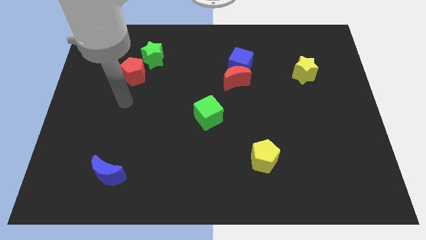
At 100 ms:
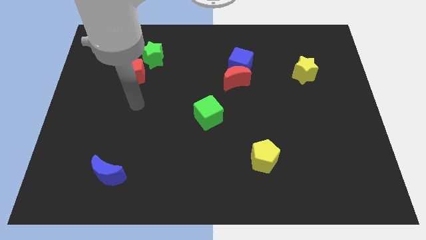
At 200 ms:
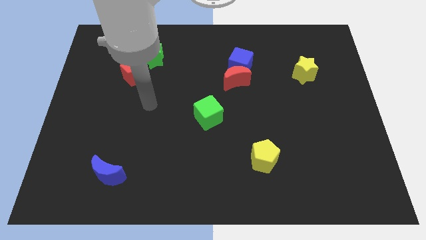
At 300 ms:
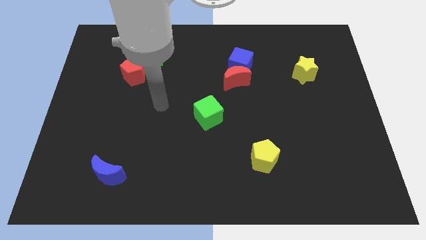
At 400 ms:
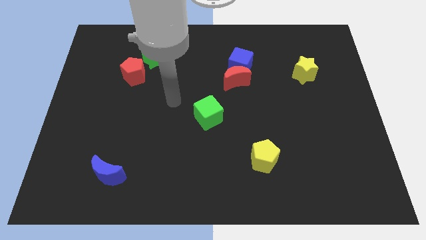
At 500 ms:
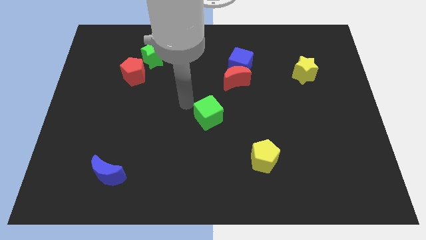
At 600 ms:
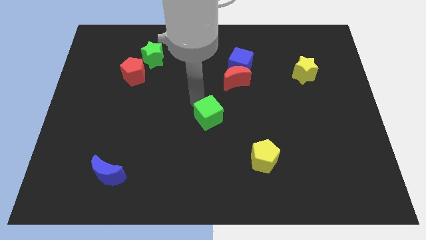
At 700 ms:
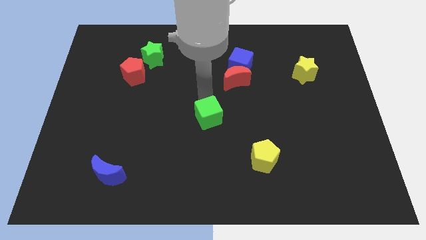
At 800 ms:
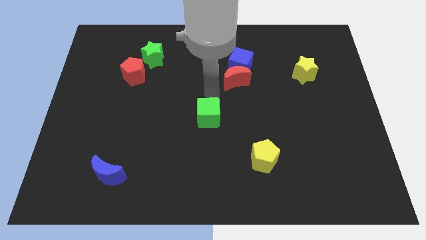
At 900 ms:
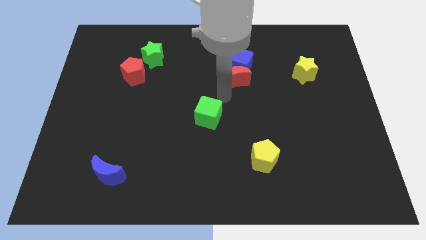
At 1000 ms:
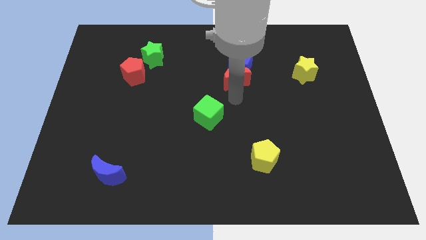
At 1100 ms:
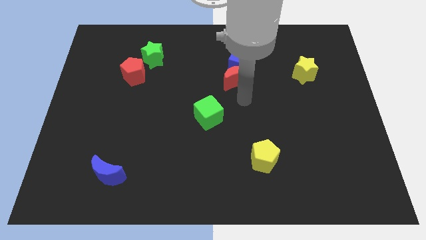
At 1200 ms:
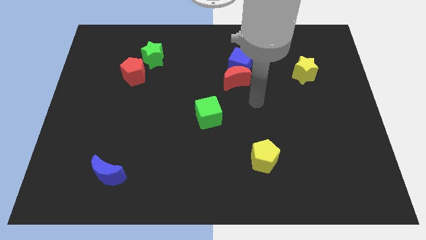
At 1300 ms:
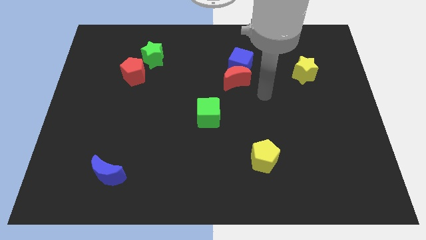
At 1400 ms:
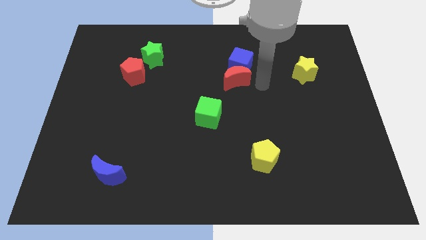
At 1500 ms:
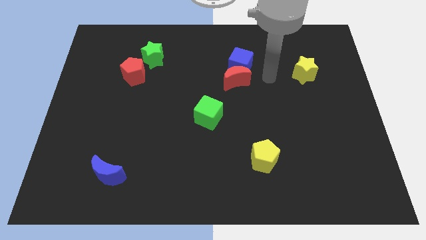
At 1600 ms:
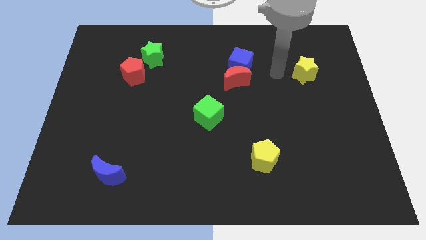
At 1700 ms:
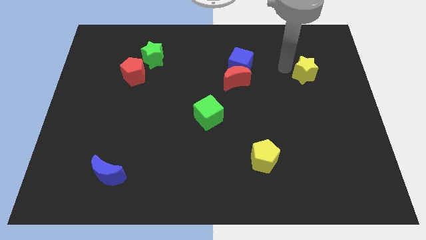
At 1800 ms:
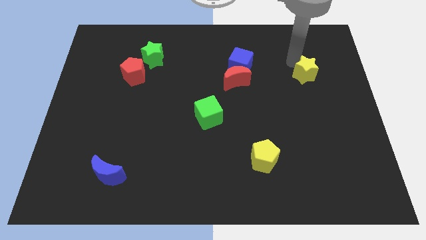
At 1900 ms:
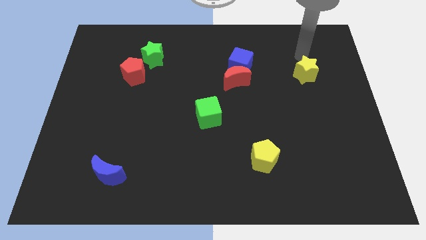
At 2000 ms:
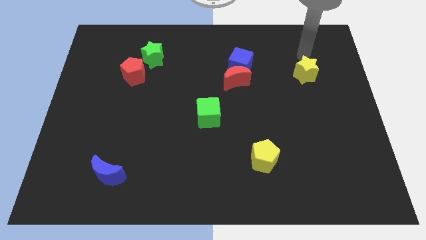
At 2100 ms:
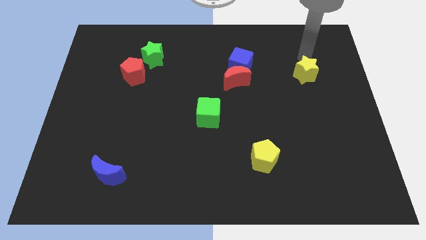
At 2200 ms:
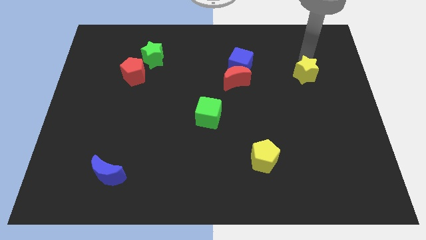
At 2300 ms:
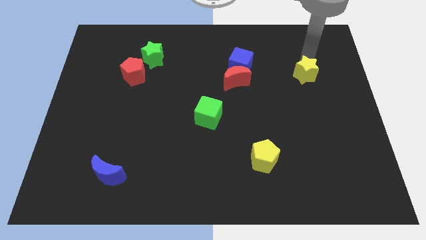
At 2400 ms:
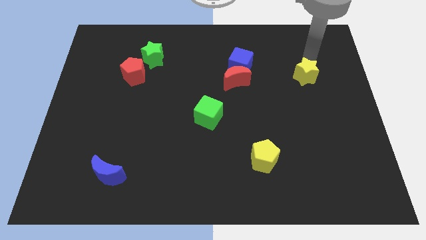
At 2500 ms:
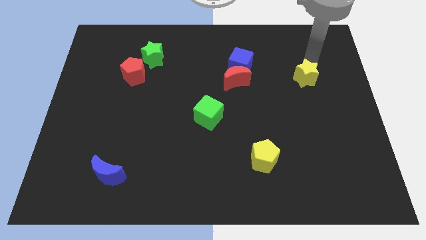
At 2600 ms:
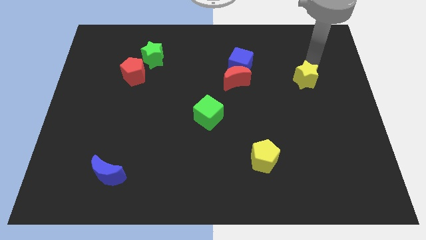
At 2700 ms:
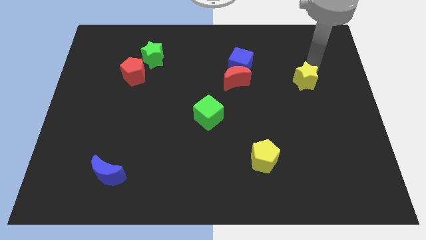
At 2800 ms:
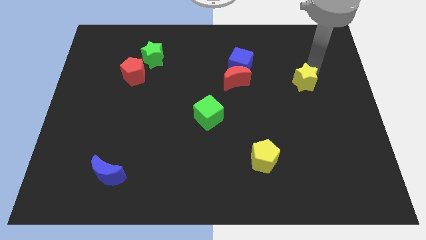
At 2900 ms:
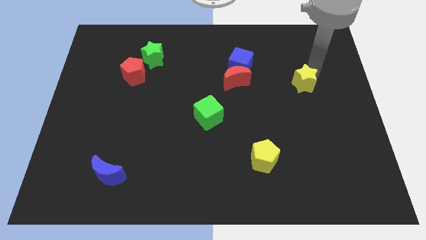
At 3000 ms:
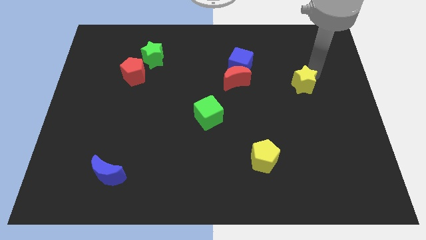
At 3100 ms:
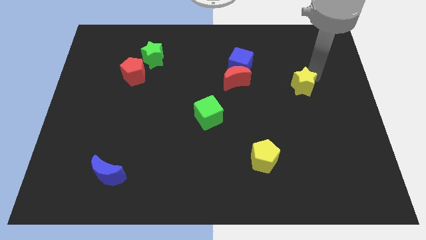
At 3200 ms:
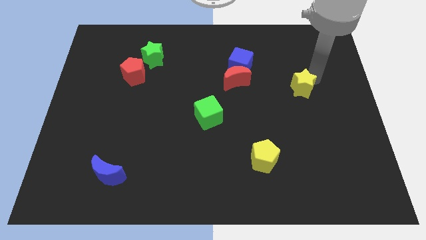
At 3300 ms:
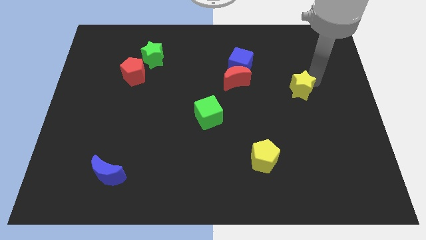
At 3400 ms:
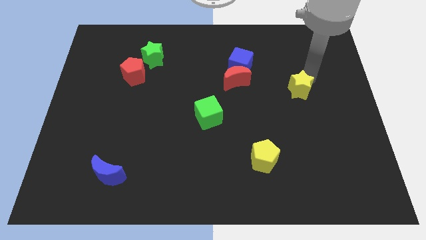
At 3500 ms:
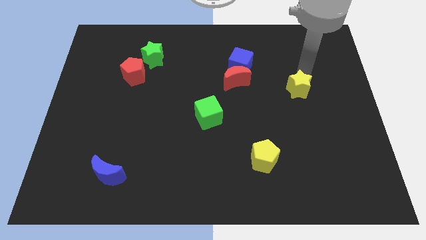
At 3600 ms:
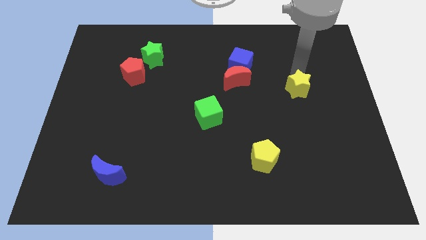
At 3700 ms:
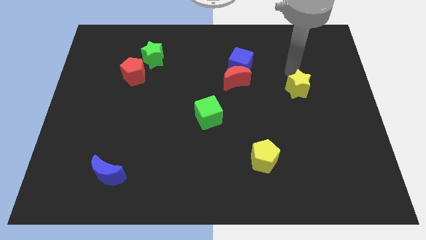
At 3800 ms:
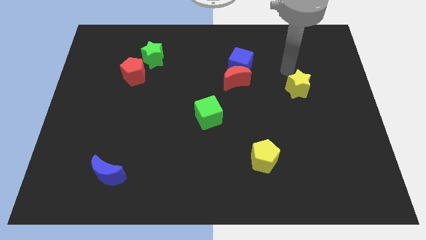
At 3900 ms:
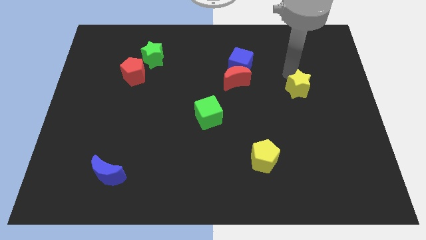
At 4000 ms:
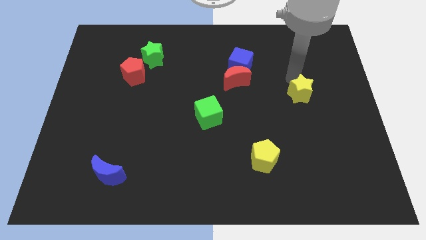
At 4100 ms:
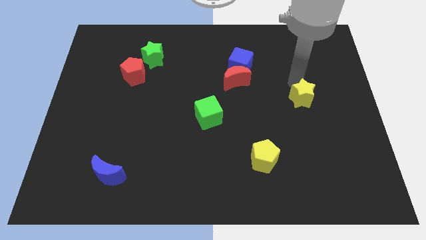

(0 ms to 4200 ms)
slide the yellow star slightly downwards

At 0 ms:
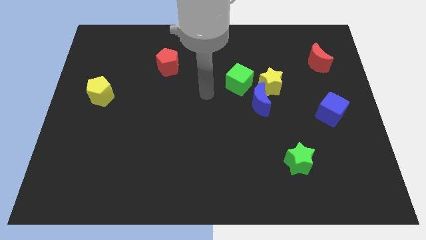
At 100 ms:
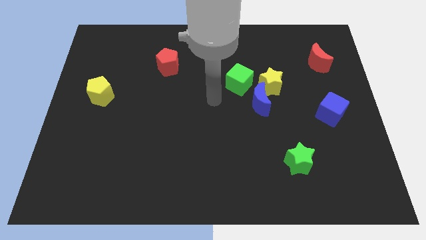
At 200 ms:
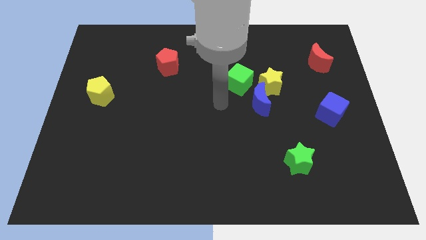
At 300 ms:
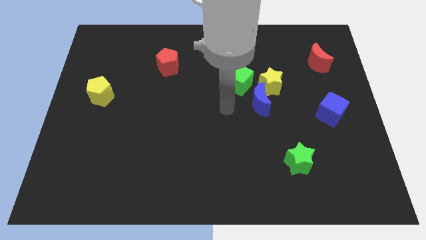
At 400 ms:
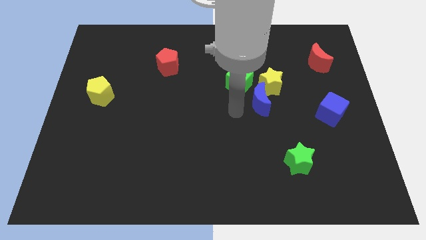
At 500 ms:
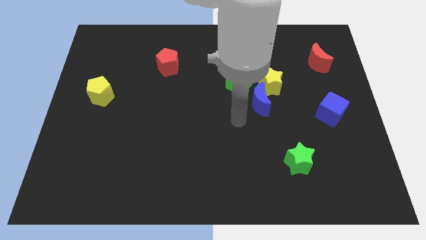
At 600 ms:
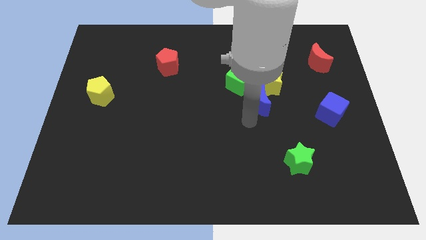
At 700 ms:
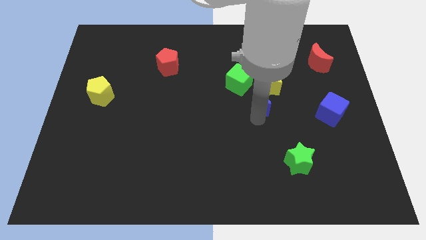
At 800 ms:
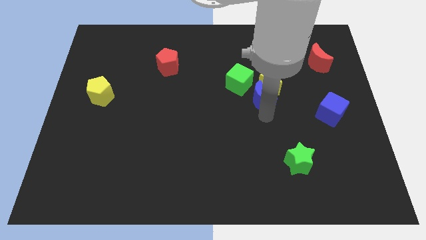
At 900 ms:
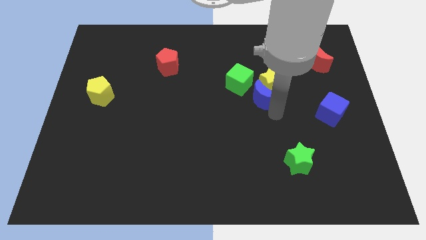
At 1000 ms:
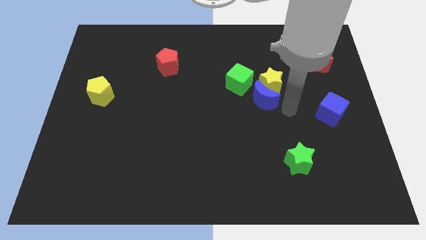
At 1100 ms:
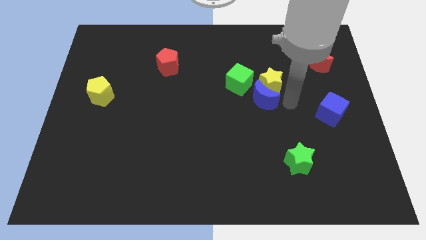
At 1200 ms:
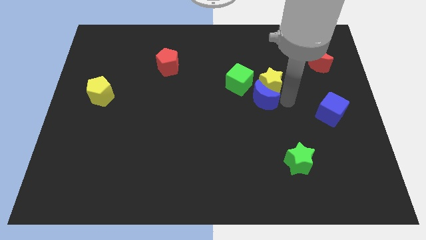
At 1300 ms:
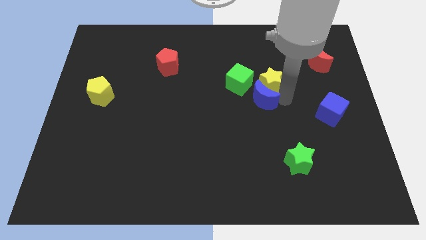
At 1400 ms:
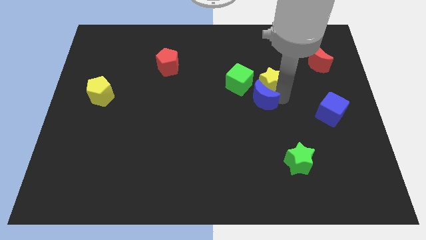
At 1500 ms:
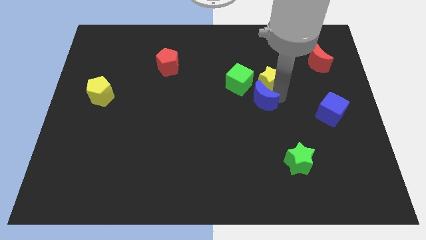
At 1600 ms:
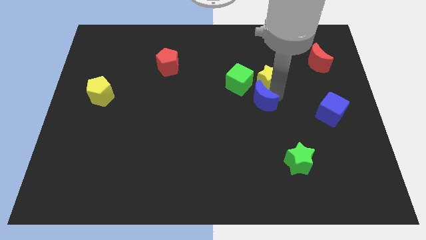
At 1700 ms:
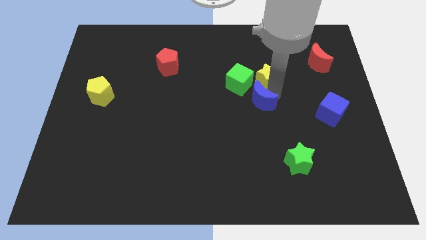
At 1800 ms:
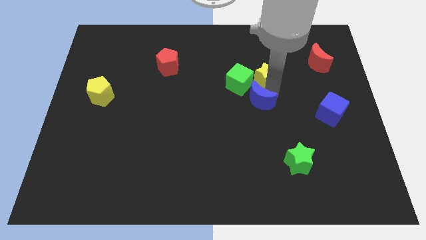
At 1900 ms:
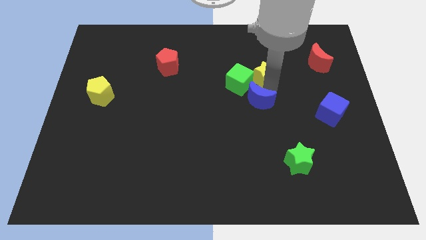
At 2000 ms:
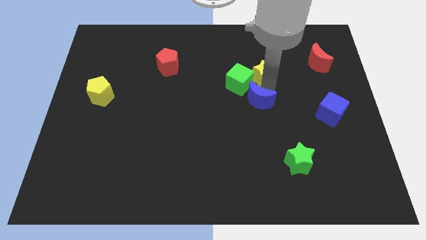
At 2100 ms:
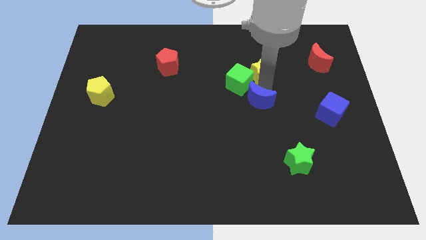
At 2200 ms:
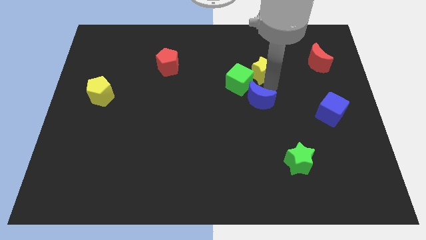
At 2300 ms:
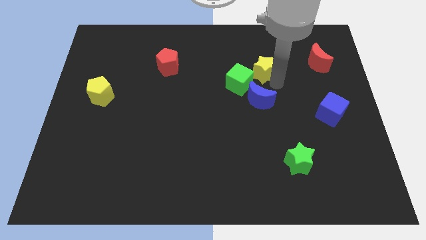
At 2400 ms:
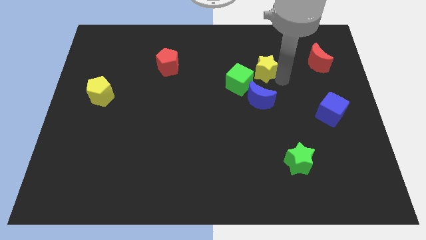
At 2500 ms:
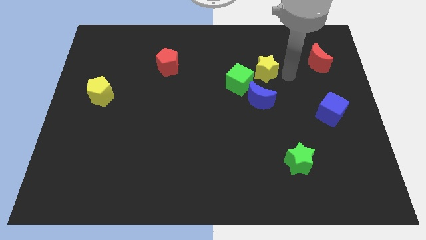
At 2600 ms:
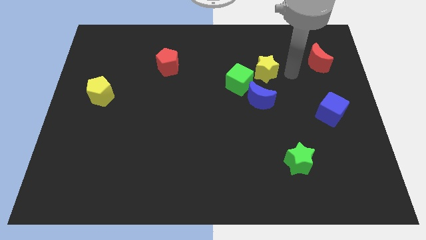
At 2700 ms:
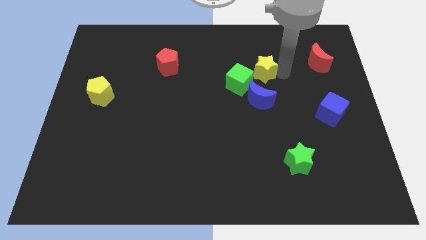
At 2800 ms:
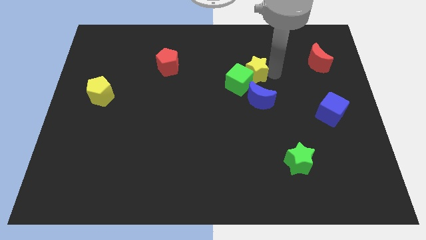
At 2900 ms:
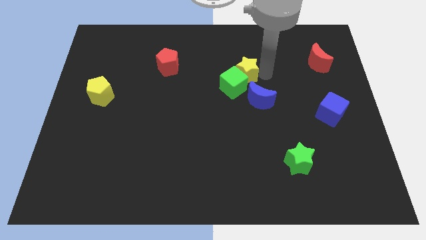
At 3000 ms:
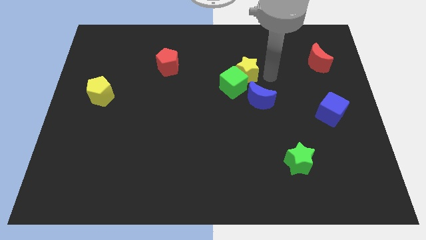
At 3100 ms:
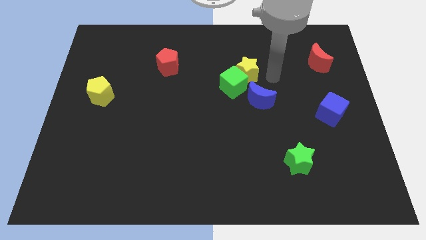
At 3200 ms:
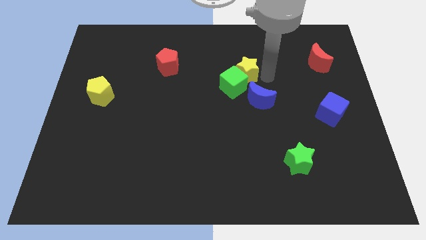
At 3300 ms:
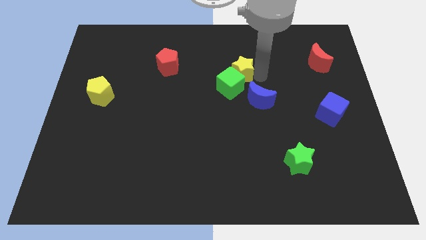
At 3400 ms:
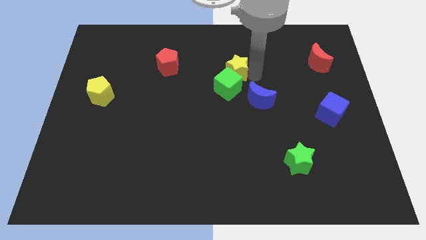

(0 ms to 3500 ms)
slightly move the yellow star left

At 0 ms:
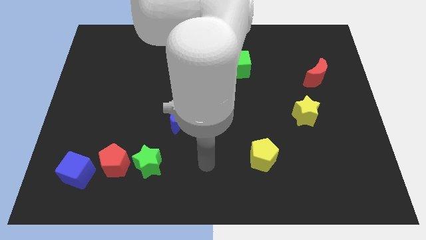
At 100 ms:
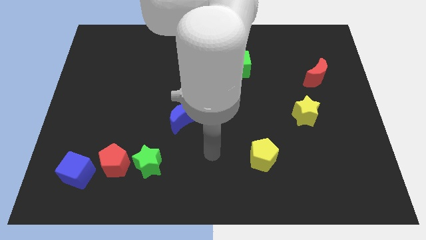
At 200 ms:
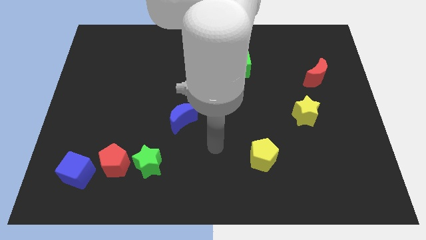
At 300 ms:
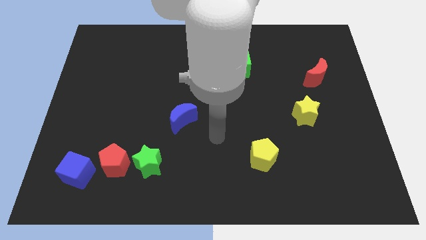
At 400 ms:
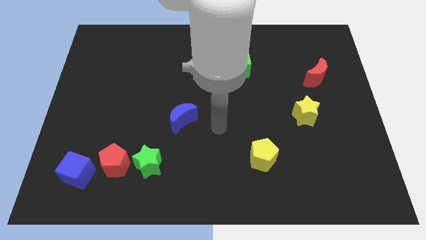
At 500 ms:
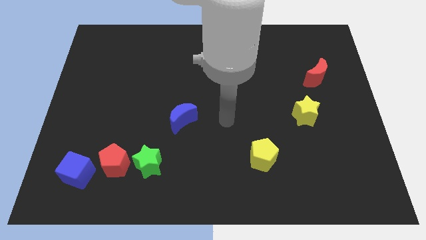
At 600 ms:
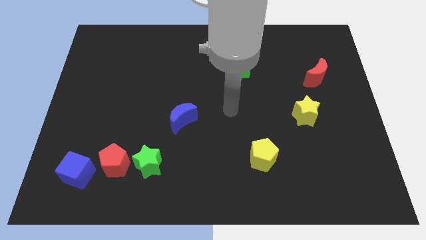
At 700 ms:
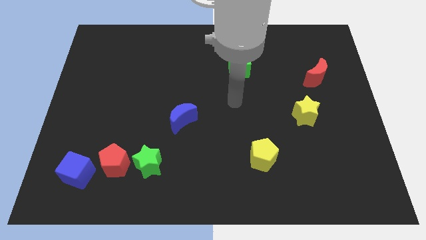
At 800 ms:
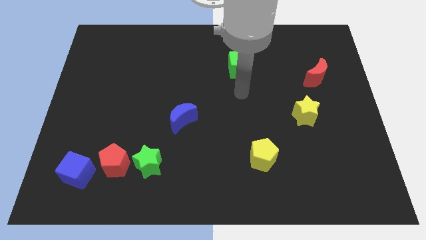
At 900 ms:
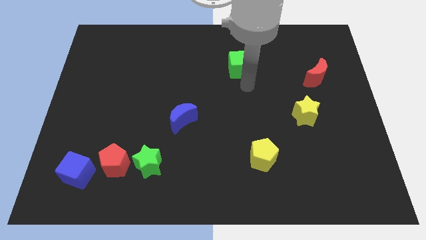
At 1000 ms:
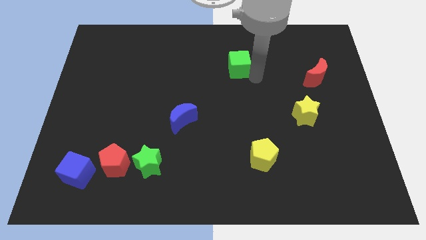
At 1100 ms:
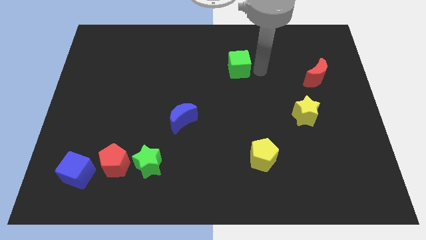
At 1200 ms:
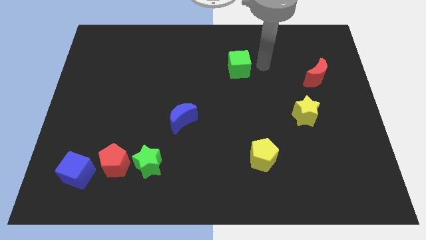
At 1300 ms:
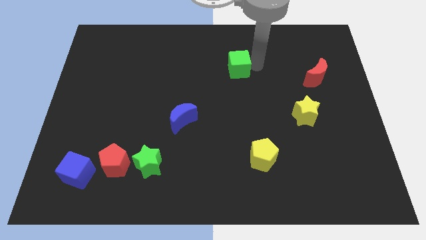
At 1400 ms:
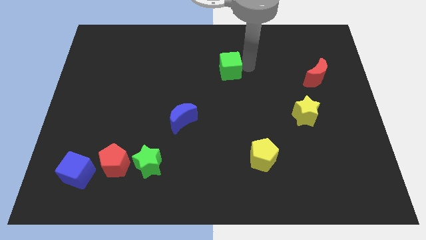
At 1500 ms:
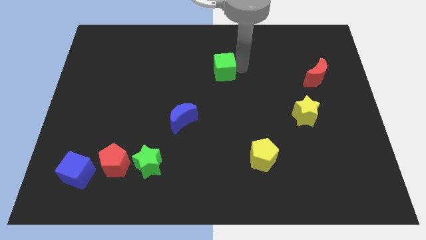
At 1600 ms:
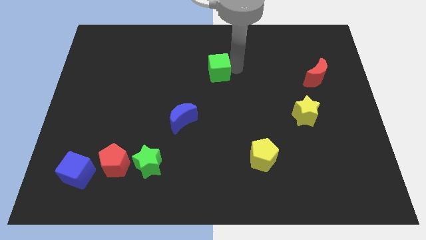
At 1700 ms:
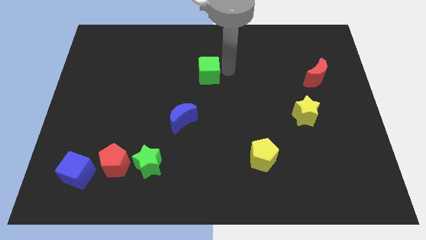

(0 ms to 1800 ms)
slightly slide the green cube to the left
